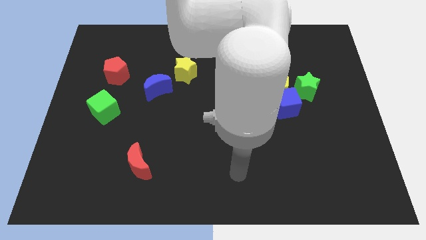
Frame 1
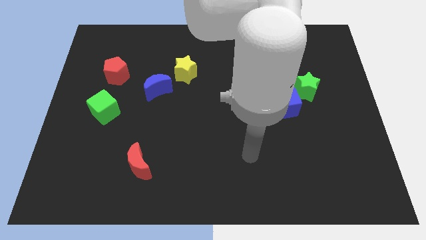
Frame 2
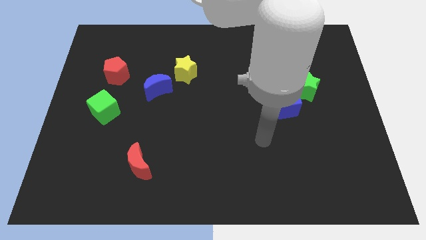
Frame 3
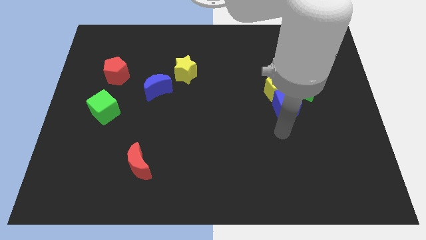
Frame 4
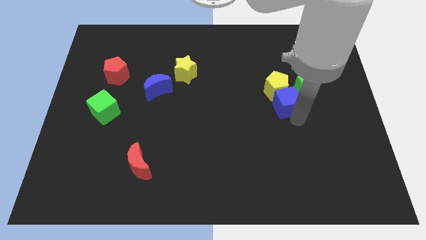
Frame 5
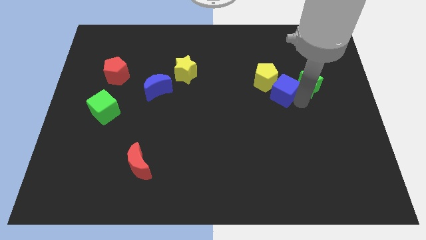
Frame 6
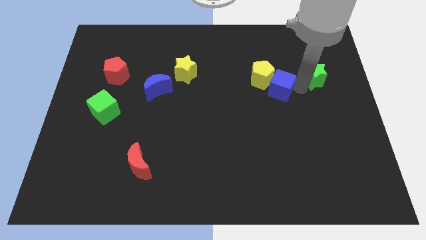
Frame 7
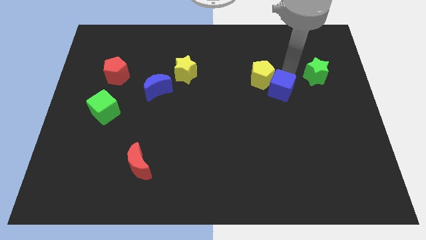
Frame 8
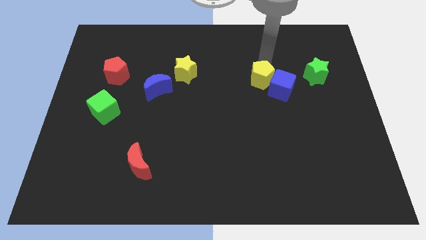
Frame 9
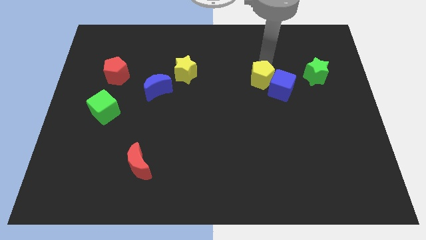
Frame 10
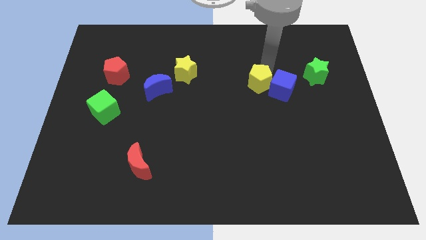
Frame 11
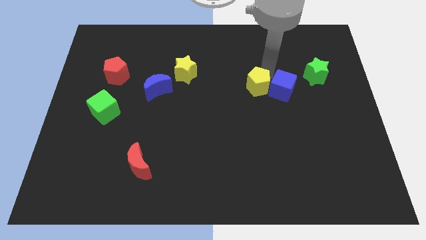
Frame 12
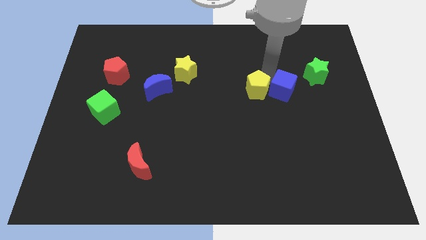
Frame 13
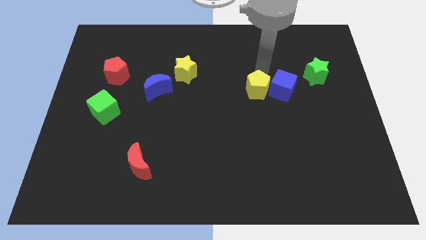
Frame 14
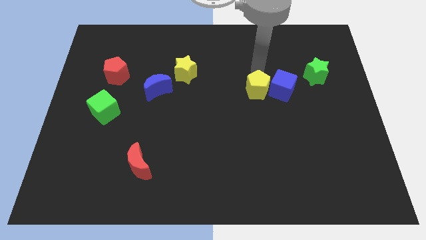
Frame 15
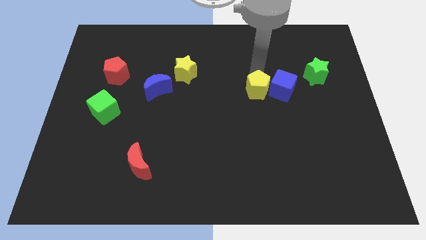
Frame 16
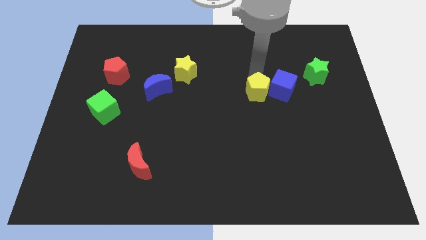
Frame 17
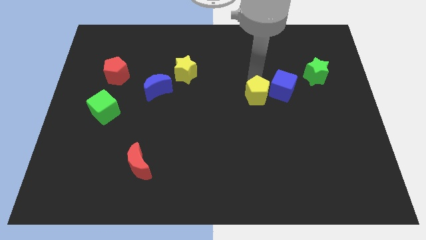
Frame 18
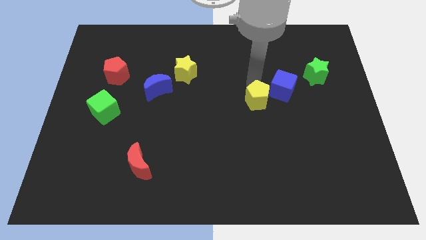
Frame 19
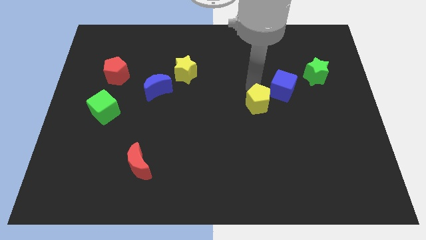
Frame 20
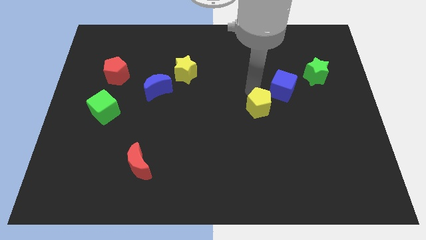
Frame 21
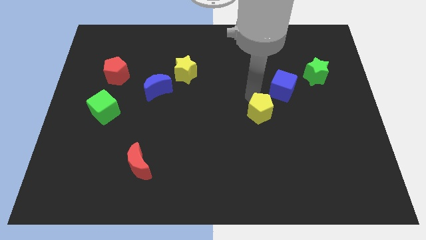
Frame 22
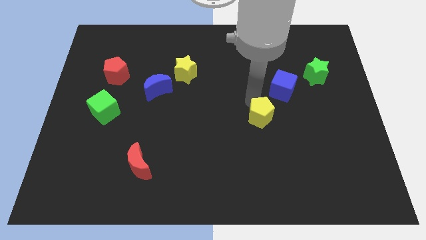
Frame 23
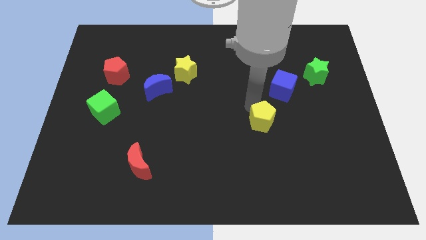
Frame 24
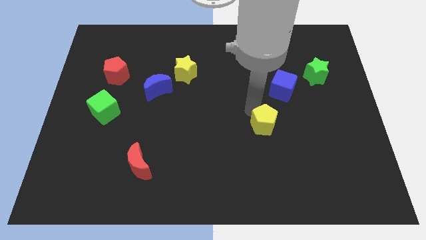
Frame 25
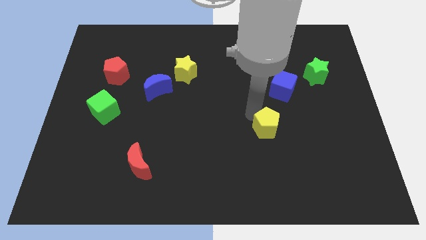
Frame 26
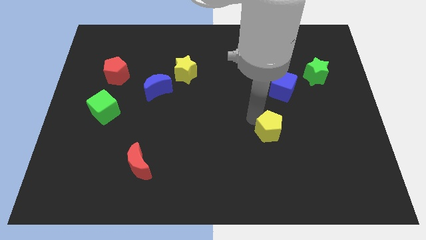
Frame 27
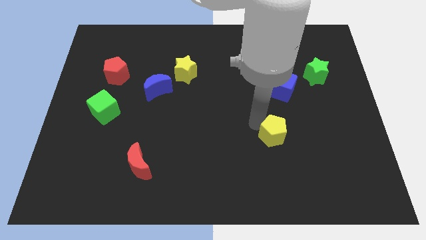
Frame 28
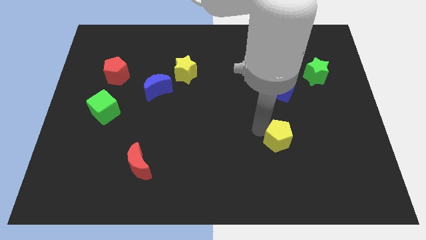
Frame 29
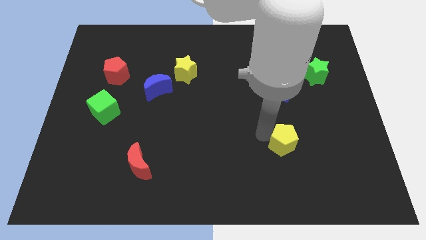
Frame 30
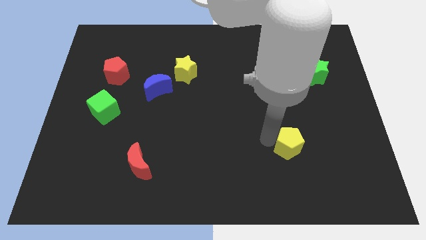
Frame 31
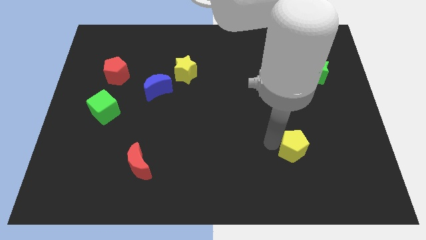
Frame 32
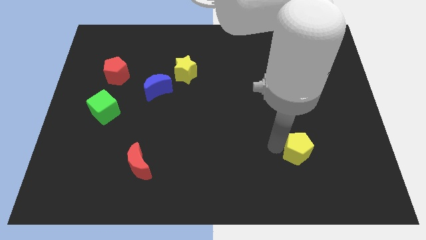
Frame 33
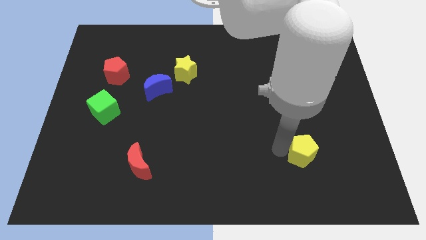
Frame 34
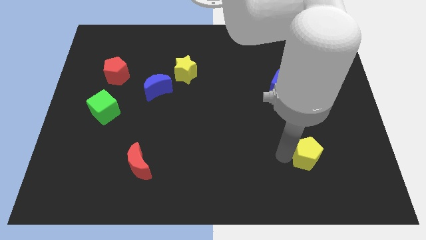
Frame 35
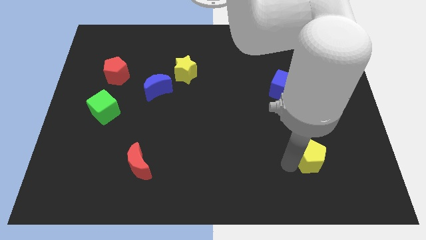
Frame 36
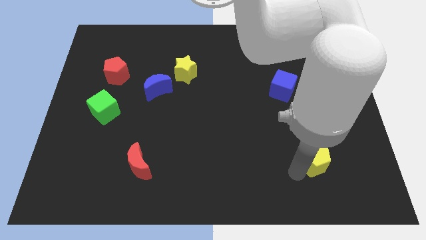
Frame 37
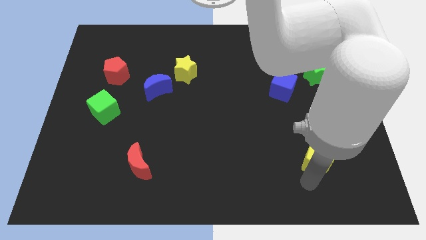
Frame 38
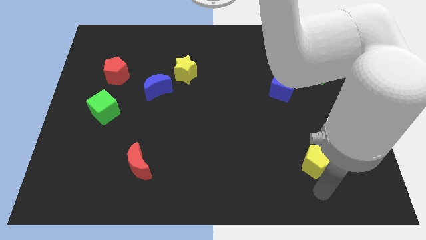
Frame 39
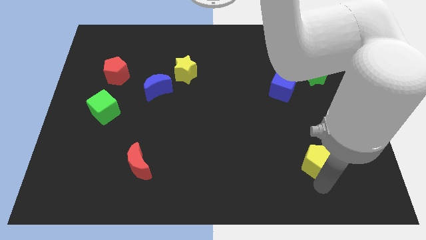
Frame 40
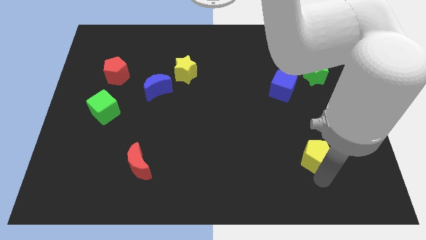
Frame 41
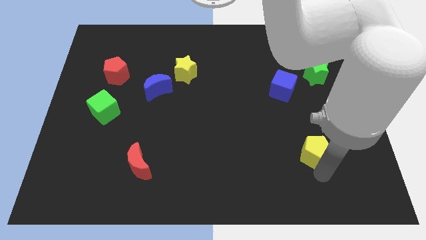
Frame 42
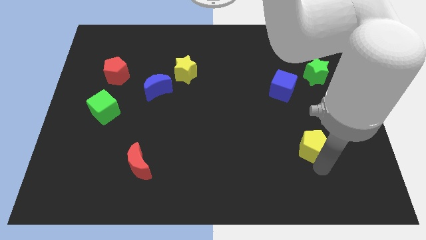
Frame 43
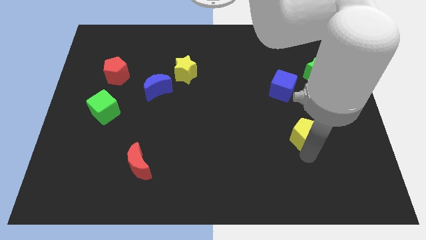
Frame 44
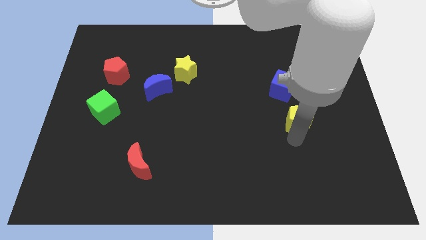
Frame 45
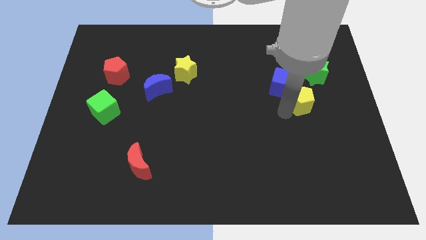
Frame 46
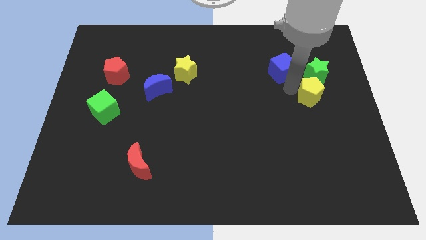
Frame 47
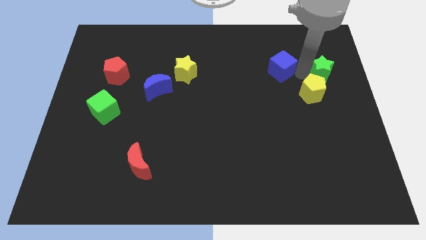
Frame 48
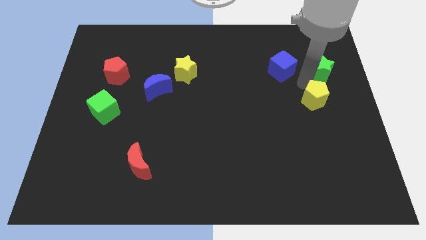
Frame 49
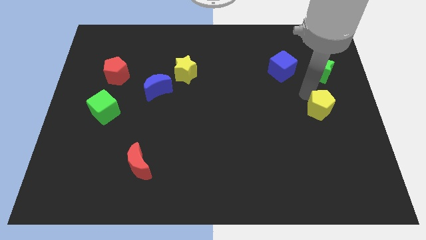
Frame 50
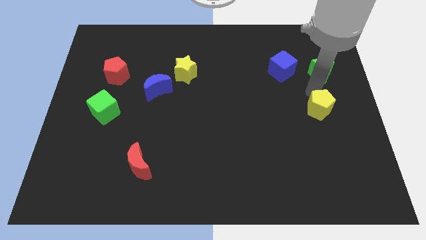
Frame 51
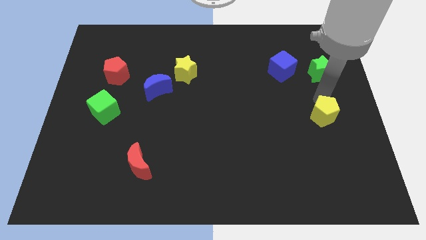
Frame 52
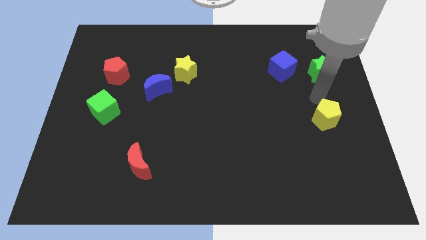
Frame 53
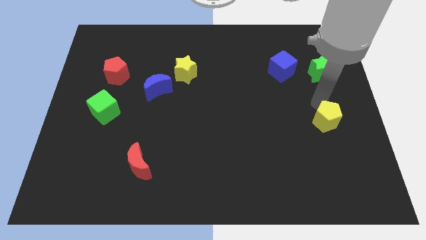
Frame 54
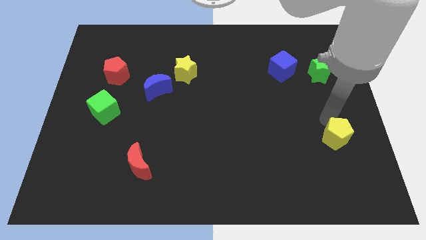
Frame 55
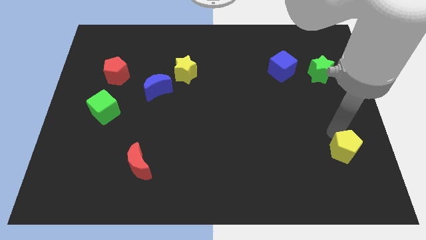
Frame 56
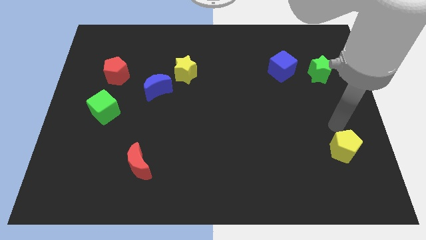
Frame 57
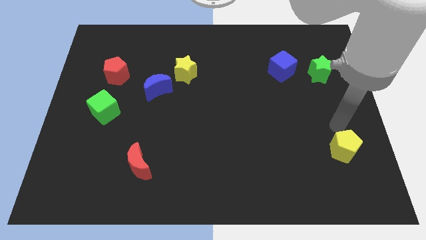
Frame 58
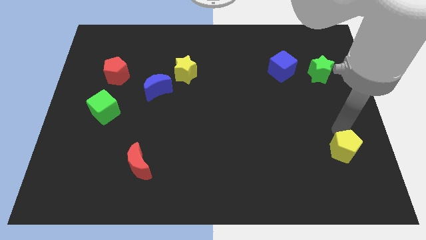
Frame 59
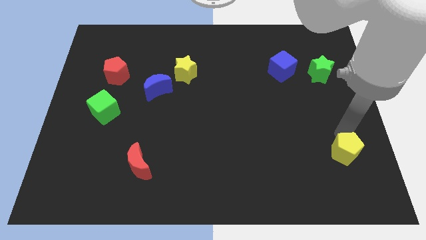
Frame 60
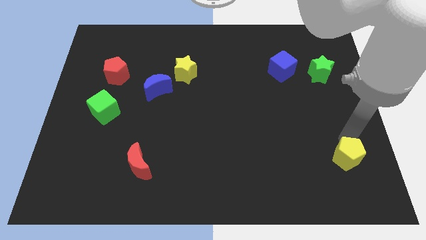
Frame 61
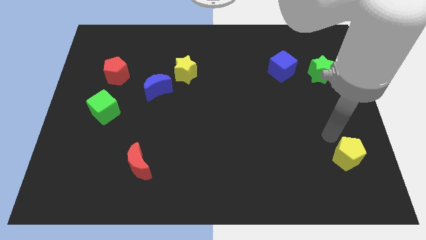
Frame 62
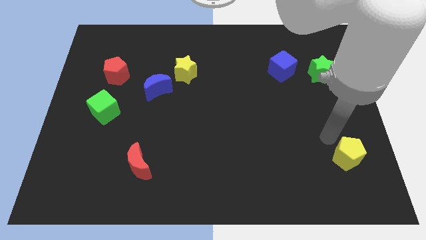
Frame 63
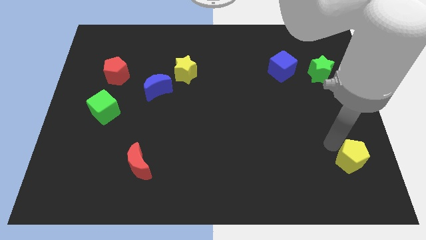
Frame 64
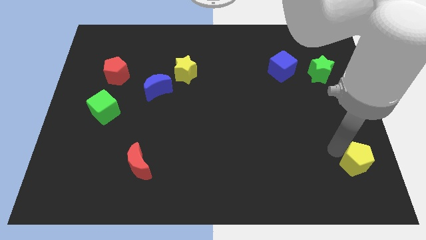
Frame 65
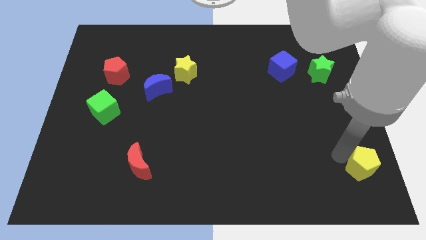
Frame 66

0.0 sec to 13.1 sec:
push the yellow pentagon to the bottom right of the board
